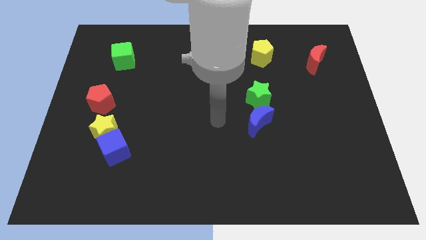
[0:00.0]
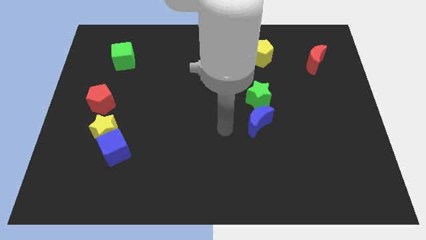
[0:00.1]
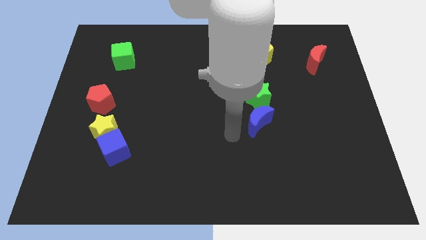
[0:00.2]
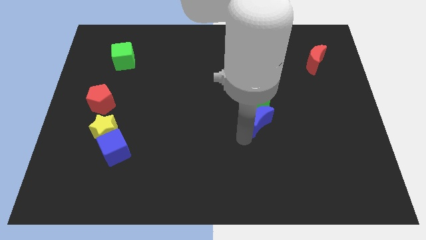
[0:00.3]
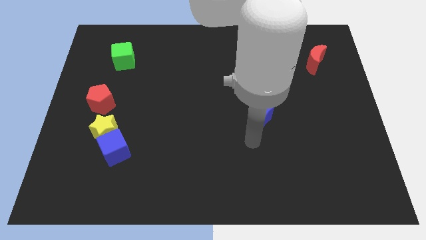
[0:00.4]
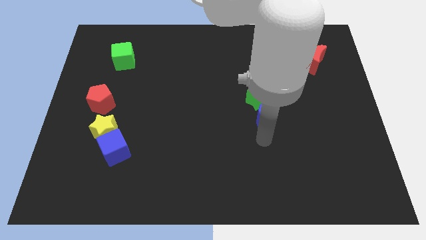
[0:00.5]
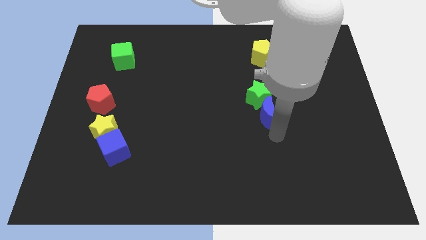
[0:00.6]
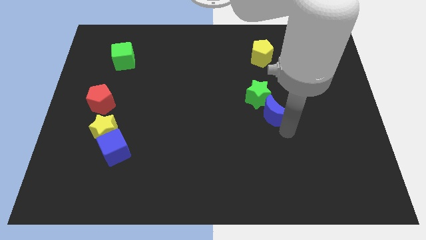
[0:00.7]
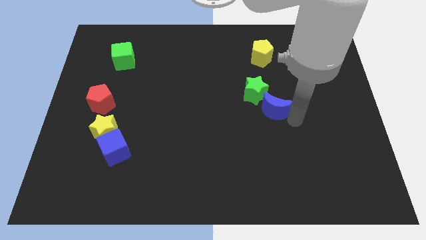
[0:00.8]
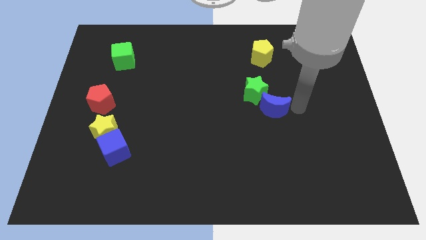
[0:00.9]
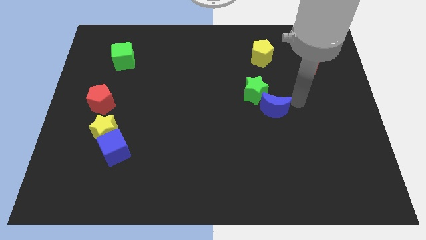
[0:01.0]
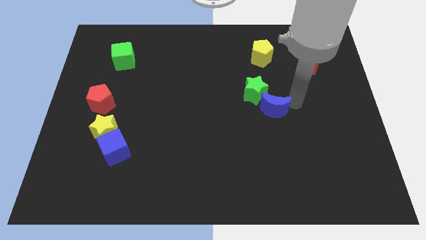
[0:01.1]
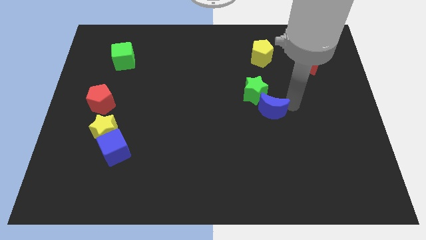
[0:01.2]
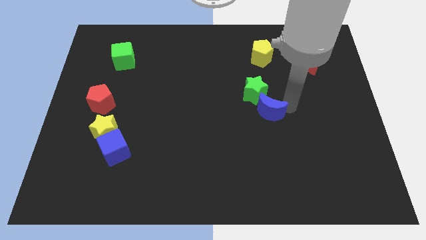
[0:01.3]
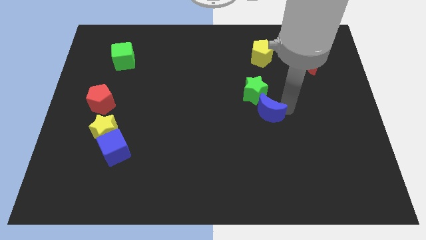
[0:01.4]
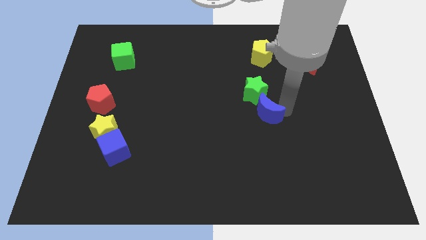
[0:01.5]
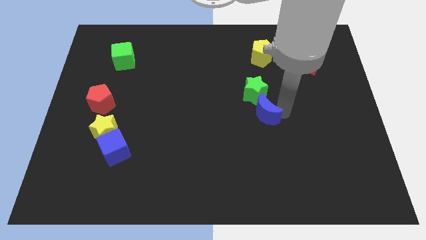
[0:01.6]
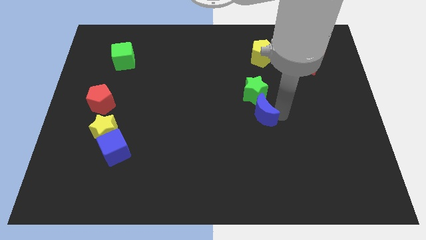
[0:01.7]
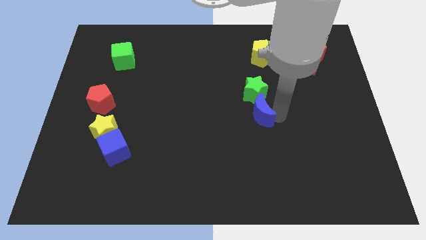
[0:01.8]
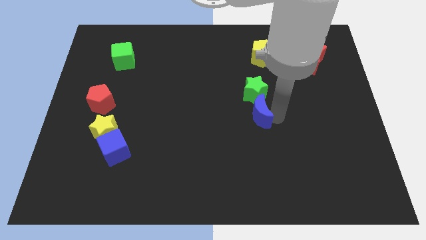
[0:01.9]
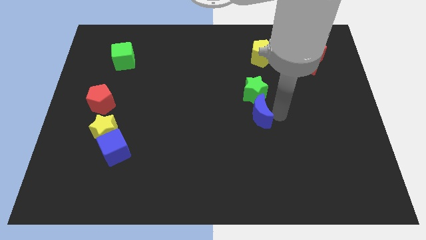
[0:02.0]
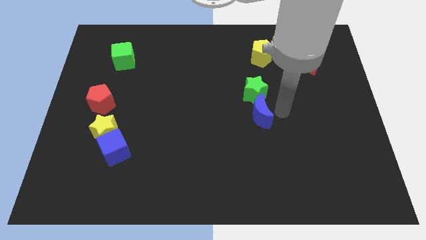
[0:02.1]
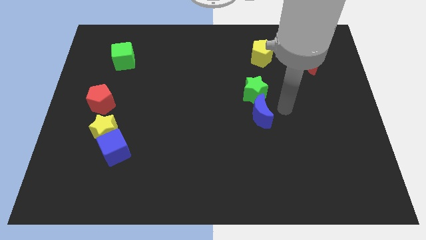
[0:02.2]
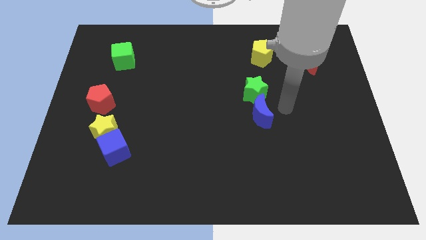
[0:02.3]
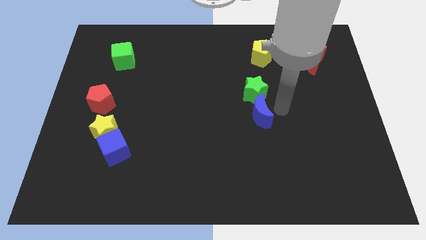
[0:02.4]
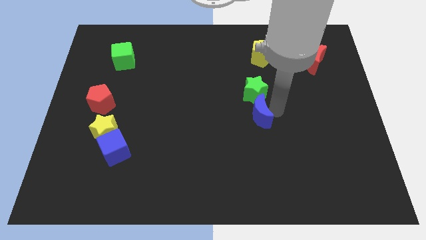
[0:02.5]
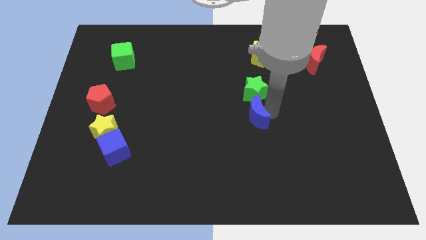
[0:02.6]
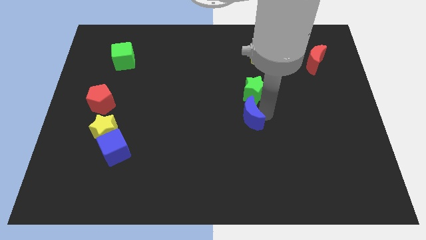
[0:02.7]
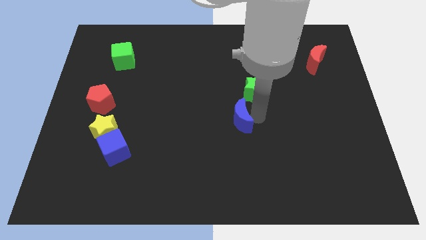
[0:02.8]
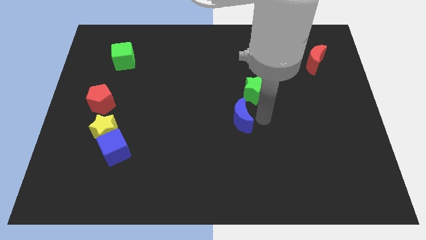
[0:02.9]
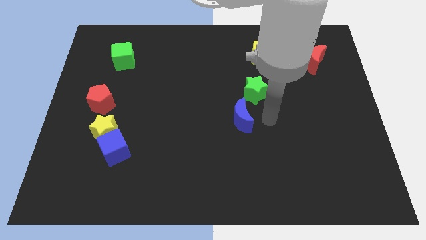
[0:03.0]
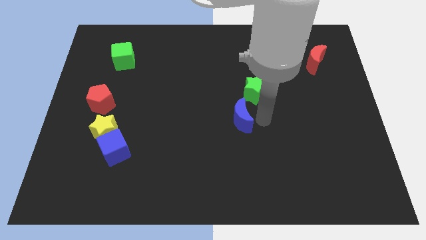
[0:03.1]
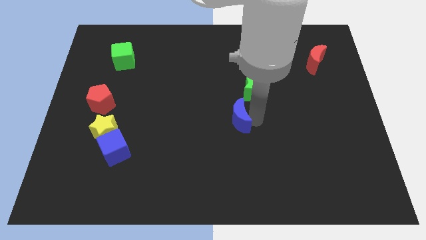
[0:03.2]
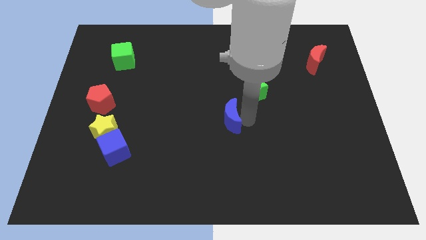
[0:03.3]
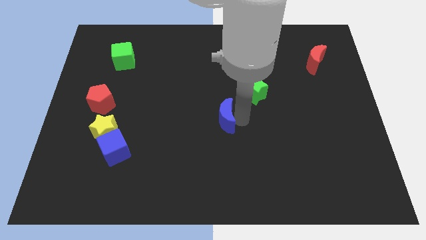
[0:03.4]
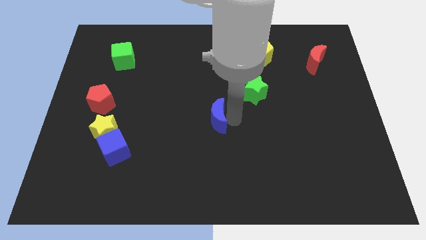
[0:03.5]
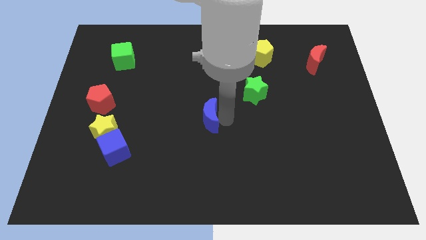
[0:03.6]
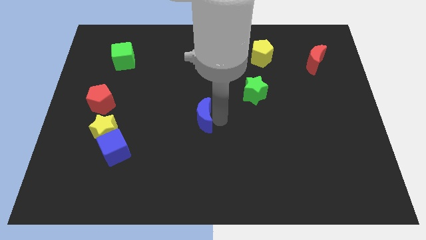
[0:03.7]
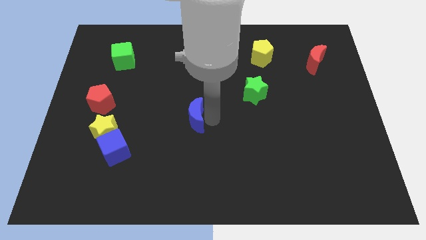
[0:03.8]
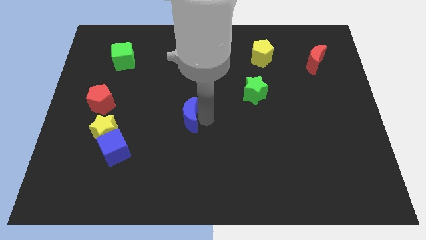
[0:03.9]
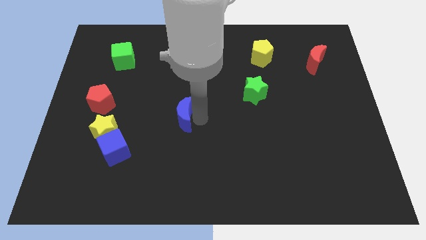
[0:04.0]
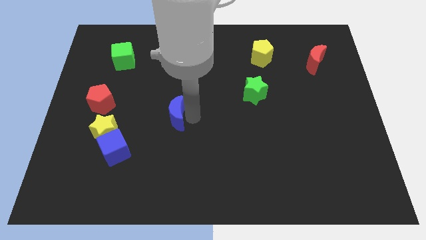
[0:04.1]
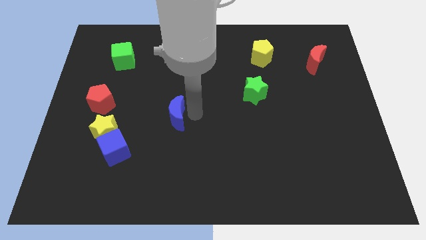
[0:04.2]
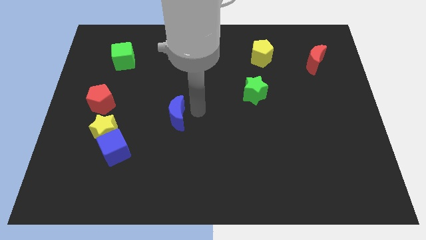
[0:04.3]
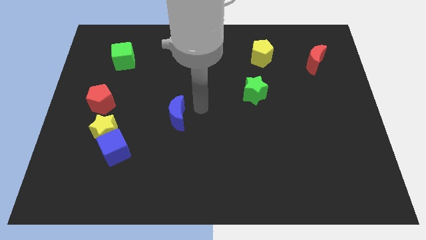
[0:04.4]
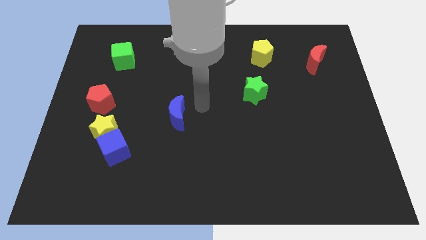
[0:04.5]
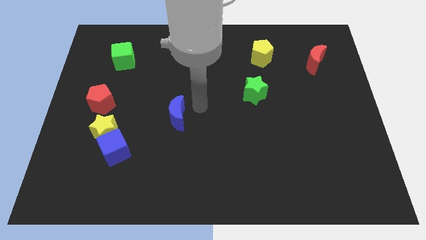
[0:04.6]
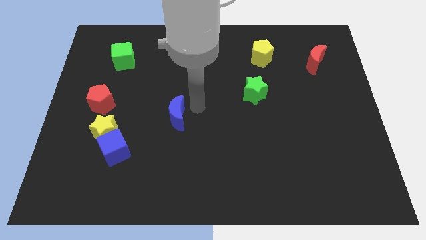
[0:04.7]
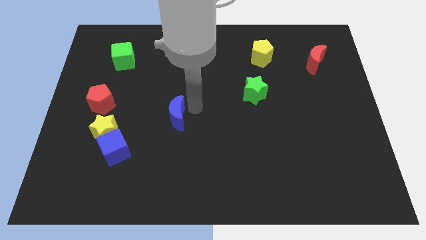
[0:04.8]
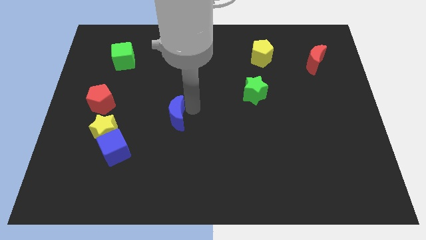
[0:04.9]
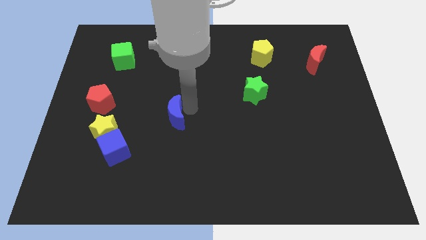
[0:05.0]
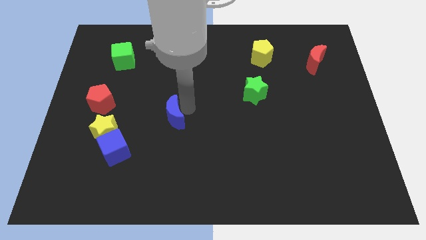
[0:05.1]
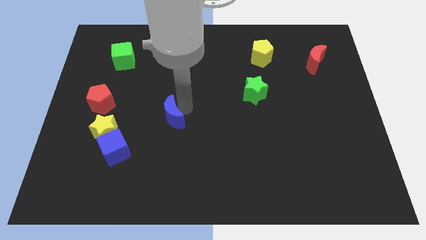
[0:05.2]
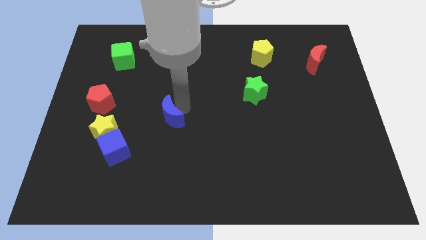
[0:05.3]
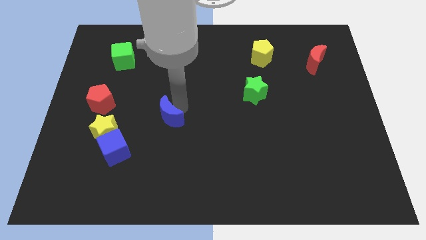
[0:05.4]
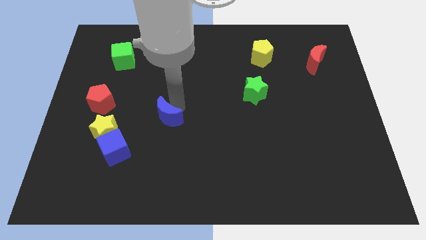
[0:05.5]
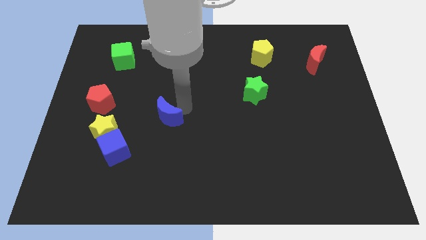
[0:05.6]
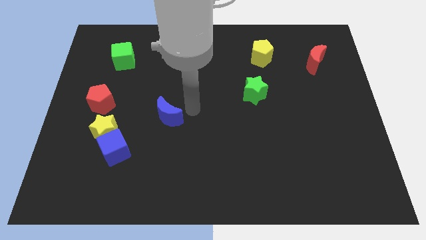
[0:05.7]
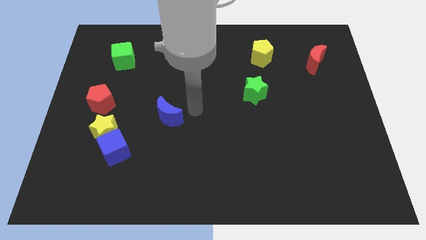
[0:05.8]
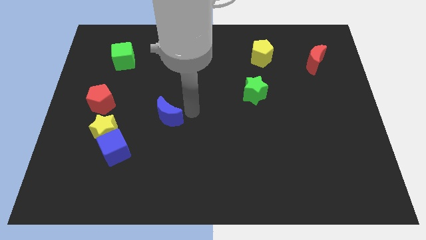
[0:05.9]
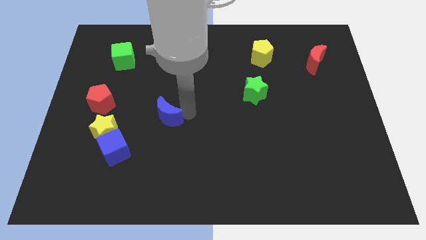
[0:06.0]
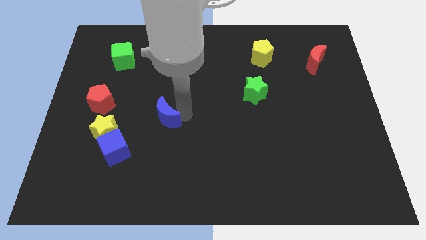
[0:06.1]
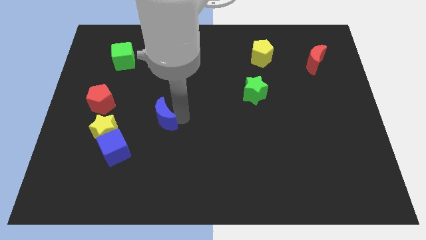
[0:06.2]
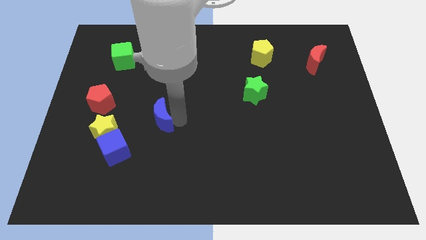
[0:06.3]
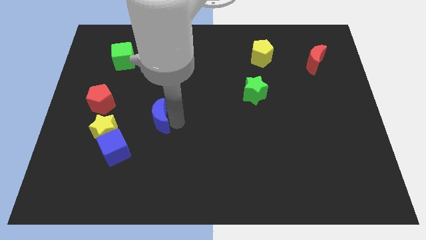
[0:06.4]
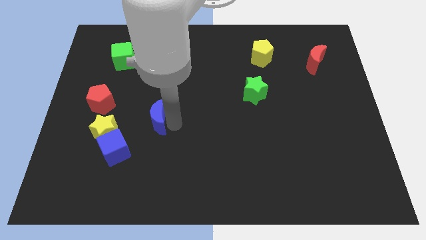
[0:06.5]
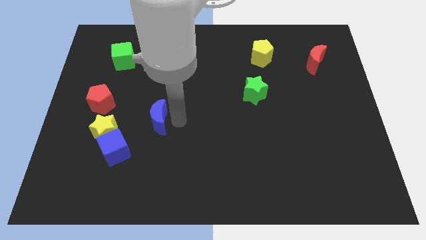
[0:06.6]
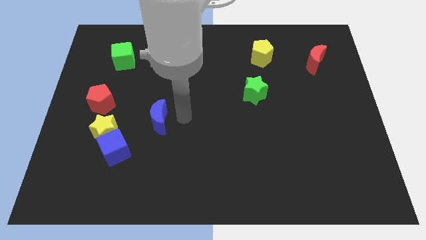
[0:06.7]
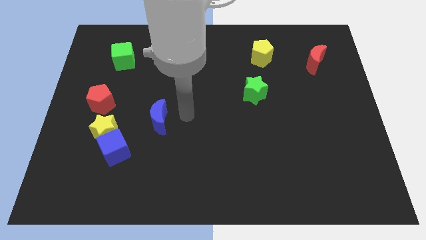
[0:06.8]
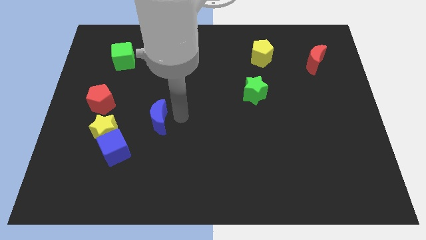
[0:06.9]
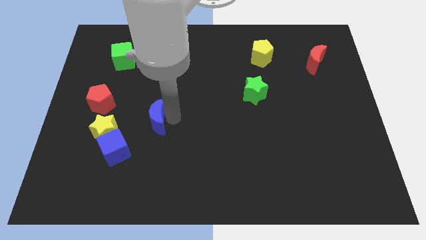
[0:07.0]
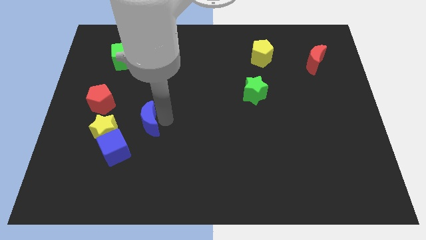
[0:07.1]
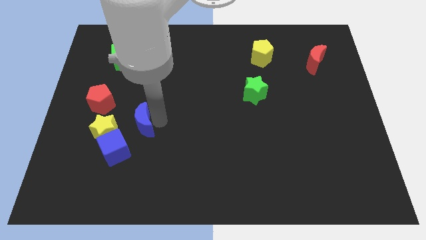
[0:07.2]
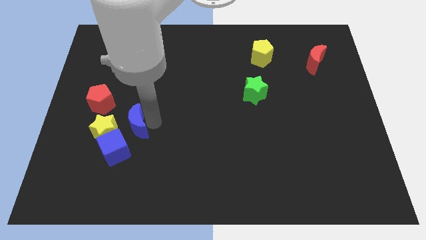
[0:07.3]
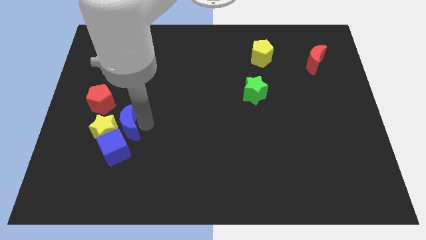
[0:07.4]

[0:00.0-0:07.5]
move the blue moon to the yellow star
